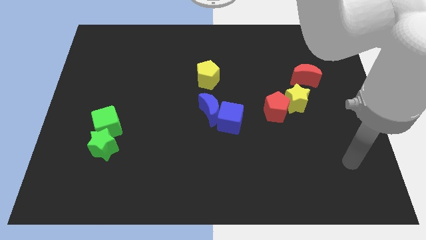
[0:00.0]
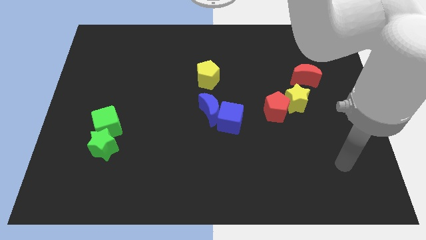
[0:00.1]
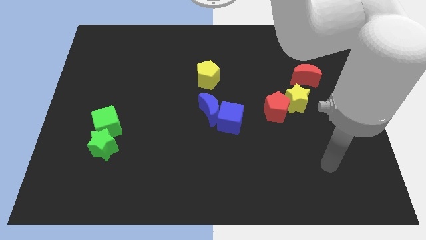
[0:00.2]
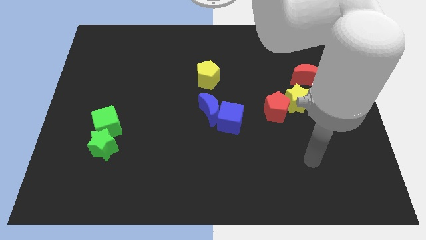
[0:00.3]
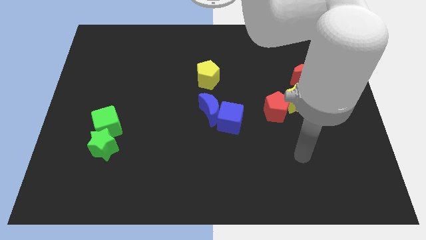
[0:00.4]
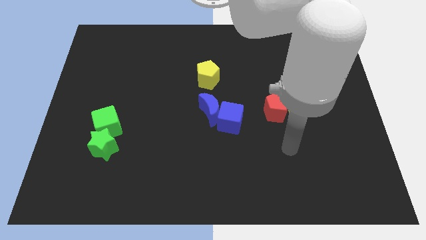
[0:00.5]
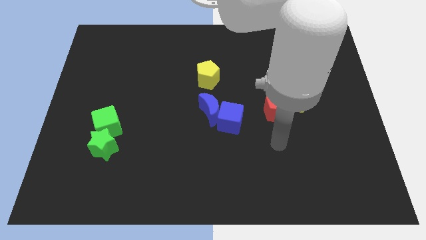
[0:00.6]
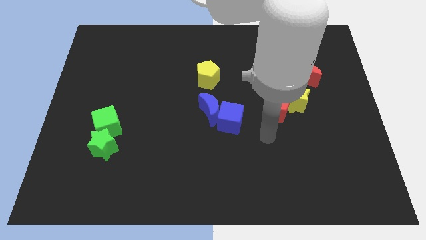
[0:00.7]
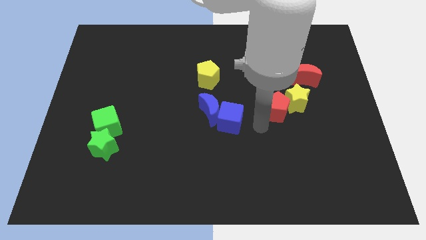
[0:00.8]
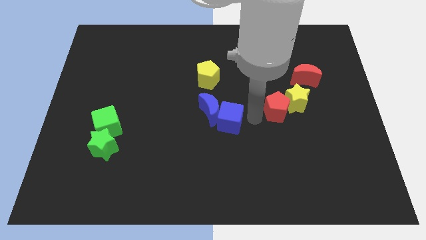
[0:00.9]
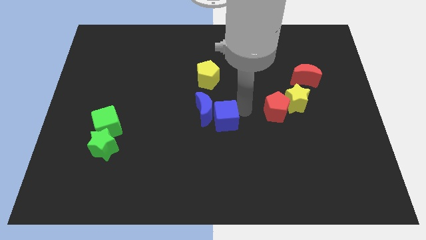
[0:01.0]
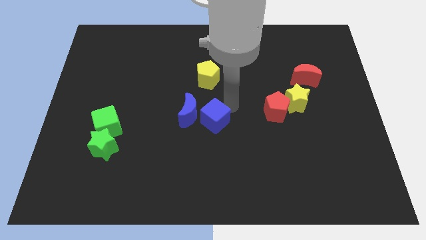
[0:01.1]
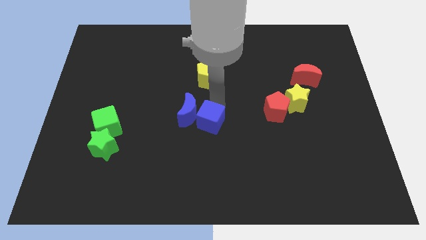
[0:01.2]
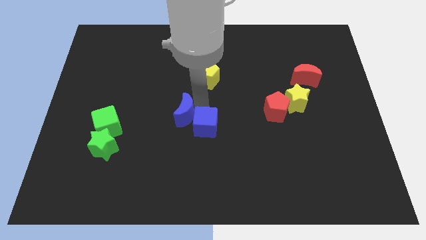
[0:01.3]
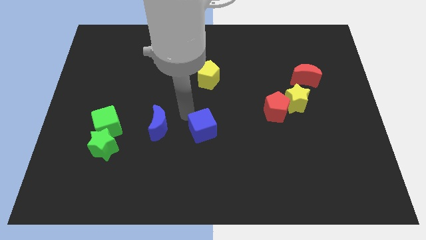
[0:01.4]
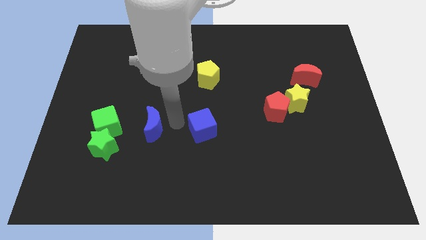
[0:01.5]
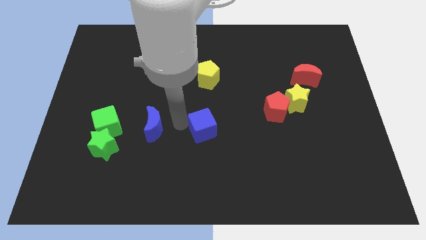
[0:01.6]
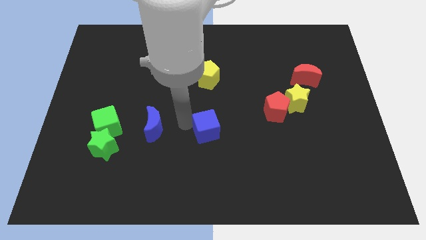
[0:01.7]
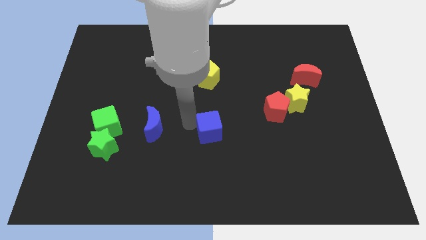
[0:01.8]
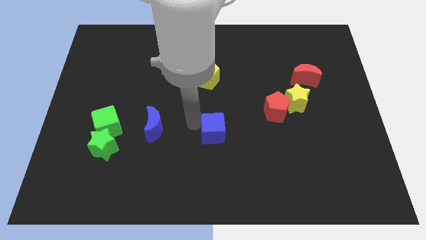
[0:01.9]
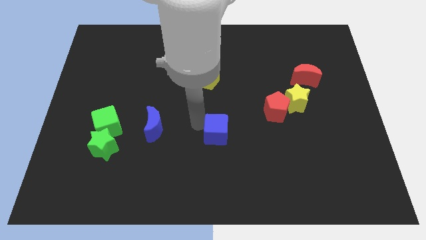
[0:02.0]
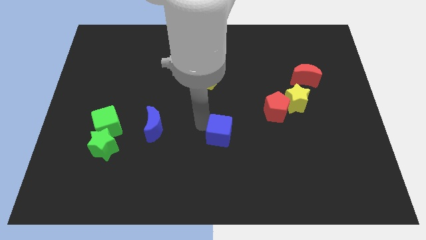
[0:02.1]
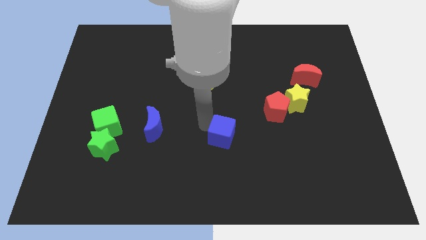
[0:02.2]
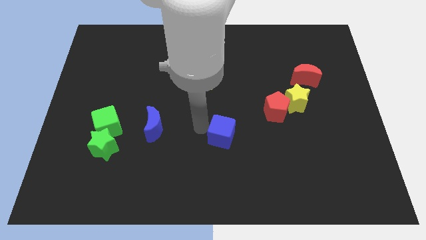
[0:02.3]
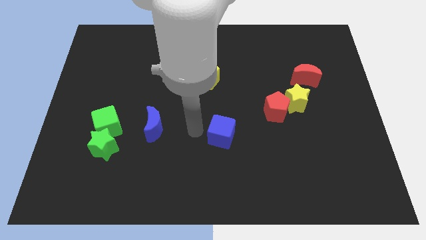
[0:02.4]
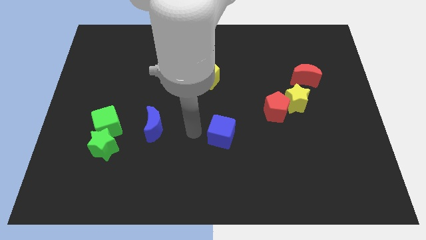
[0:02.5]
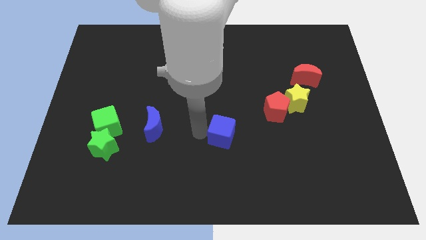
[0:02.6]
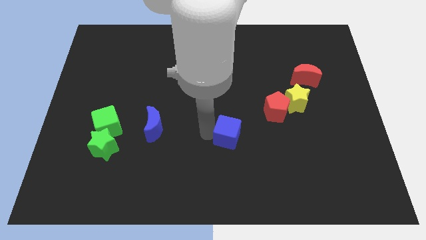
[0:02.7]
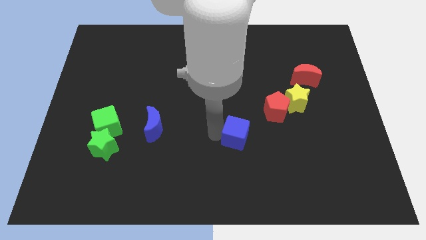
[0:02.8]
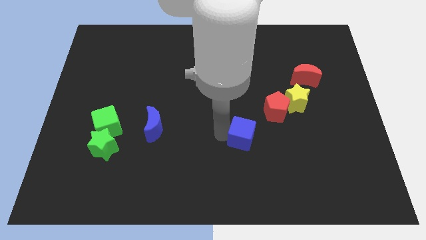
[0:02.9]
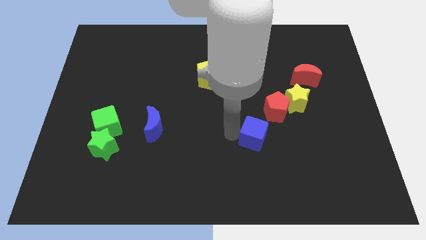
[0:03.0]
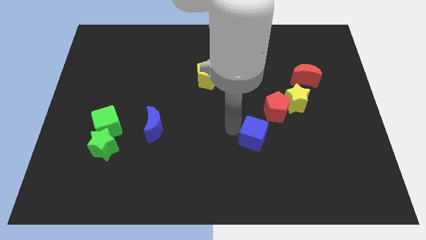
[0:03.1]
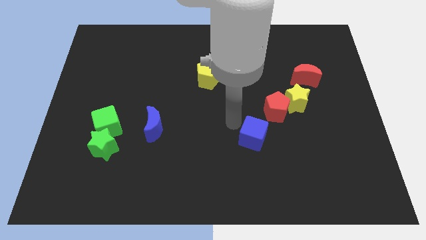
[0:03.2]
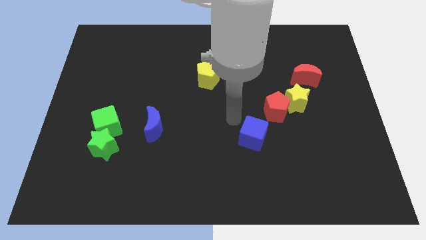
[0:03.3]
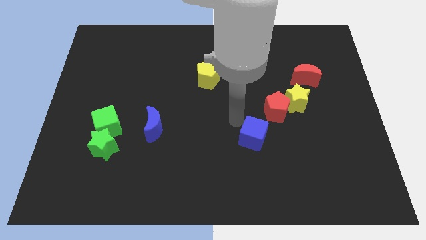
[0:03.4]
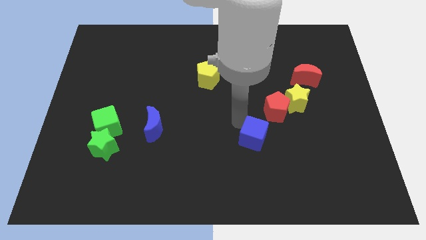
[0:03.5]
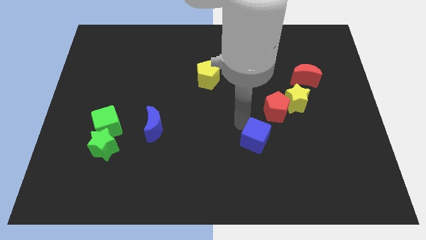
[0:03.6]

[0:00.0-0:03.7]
slightly push the blue cube downwards and right

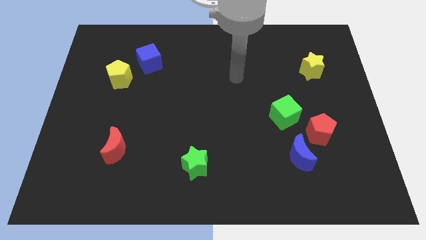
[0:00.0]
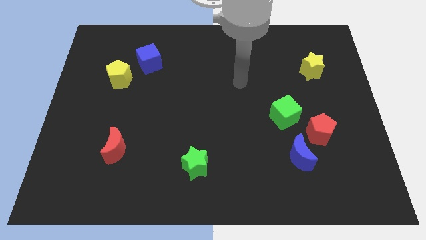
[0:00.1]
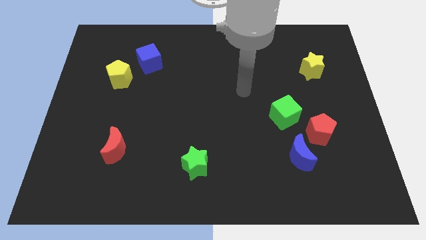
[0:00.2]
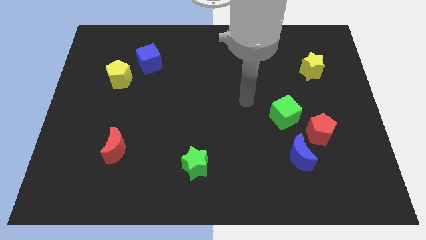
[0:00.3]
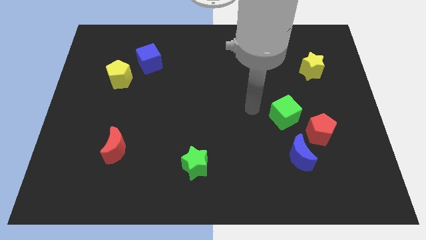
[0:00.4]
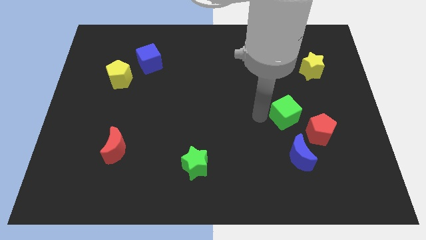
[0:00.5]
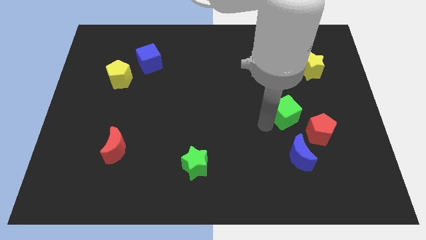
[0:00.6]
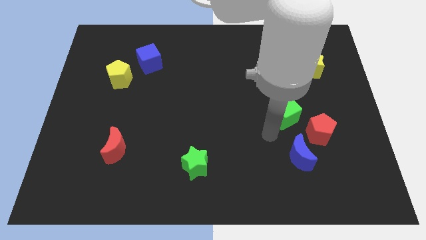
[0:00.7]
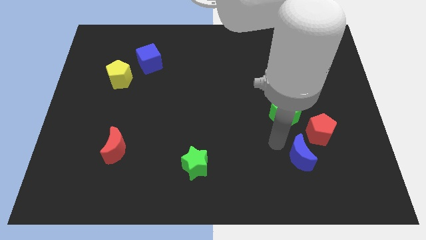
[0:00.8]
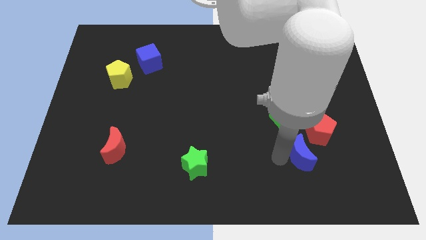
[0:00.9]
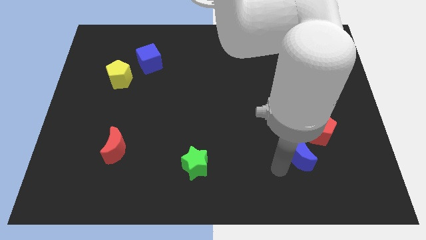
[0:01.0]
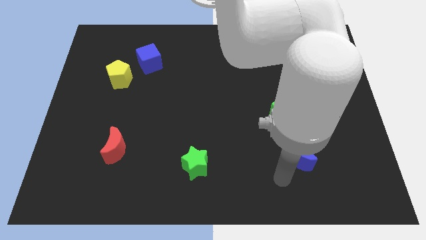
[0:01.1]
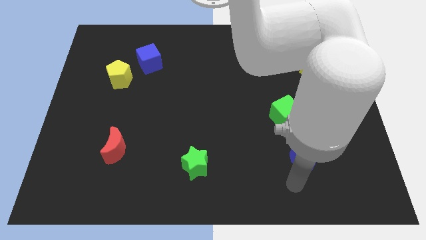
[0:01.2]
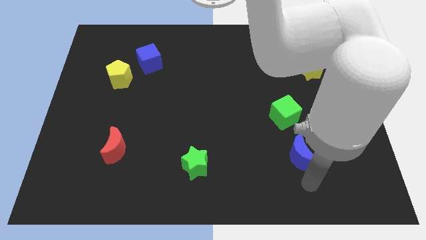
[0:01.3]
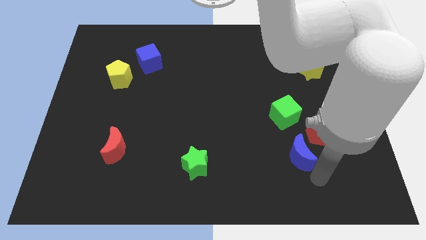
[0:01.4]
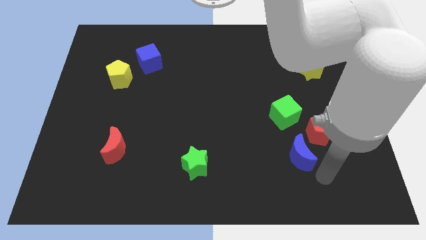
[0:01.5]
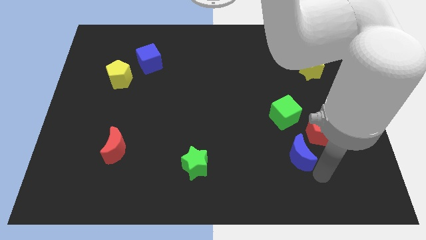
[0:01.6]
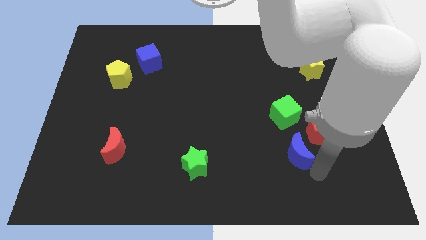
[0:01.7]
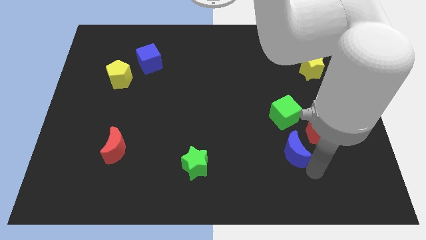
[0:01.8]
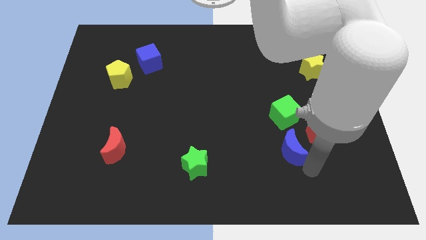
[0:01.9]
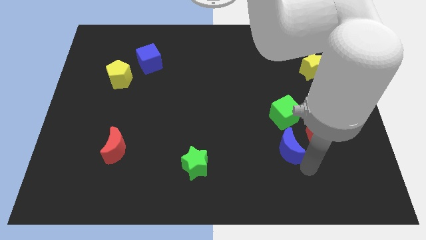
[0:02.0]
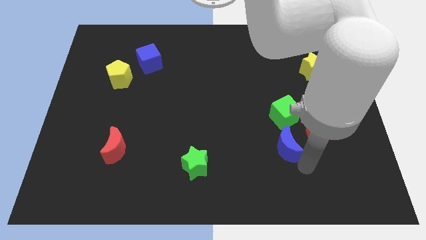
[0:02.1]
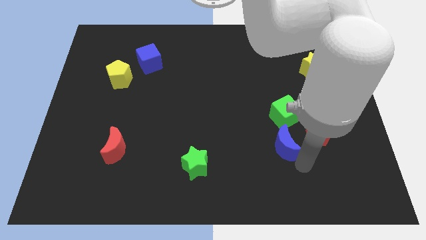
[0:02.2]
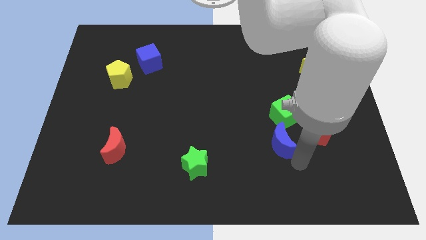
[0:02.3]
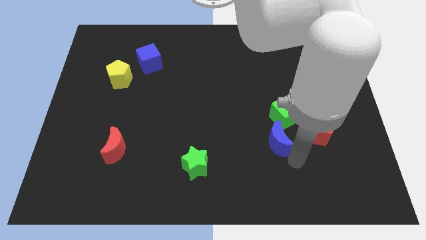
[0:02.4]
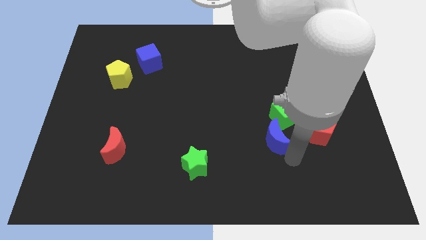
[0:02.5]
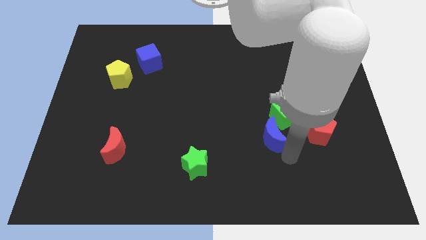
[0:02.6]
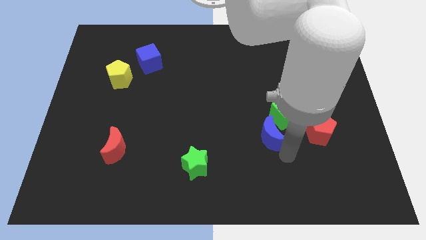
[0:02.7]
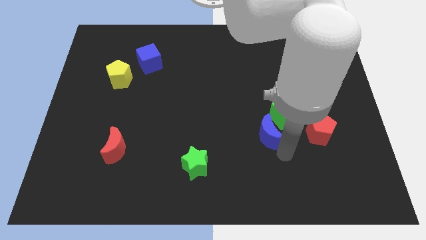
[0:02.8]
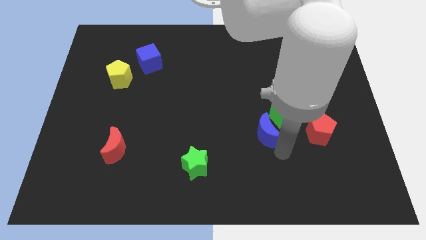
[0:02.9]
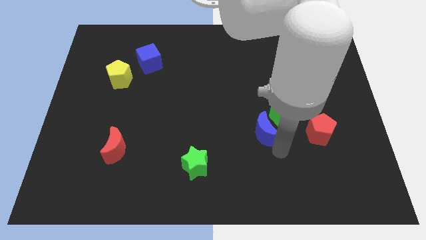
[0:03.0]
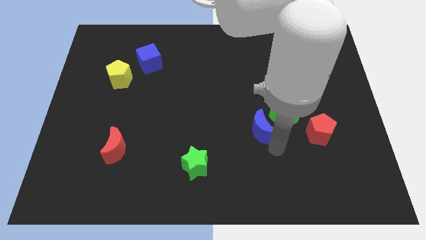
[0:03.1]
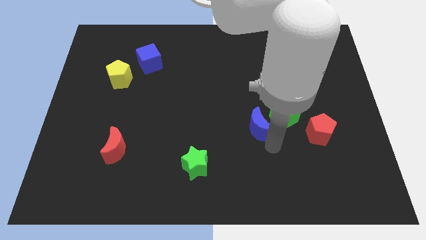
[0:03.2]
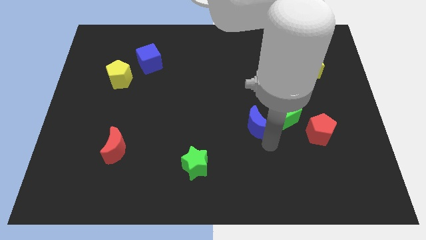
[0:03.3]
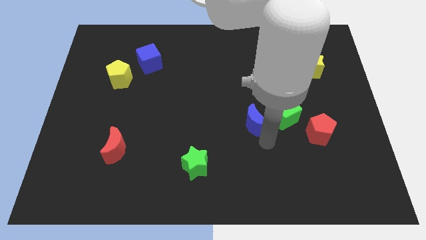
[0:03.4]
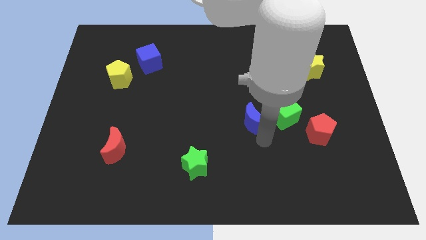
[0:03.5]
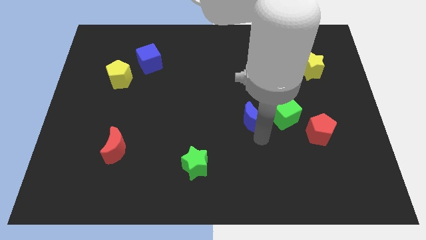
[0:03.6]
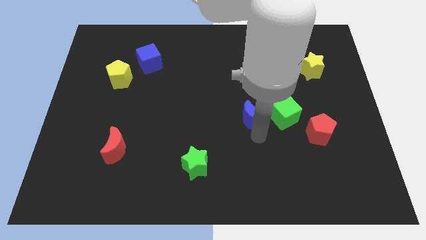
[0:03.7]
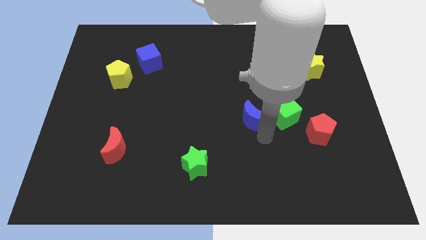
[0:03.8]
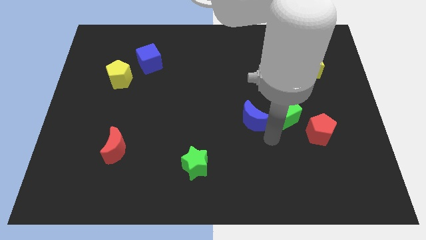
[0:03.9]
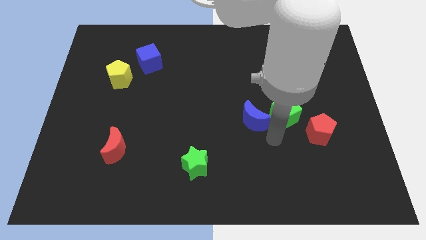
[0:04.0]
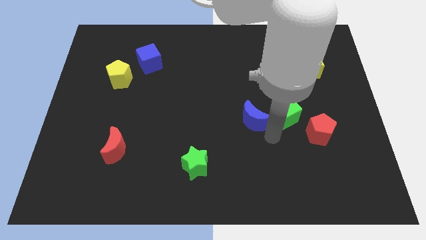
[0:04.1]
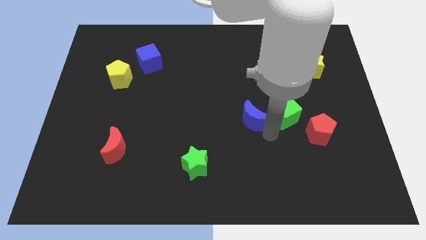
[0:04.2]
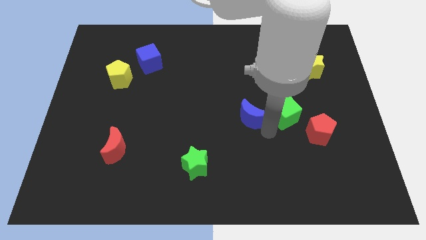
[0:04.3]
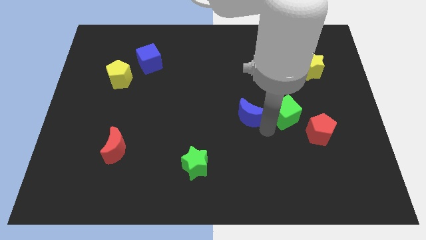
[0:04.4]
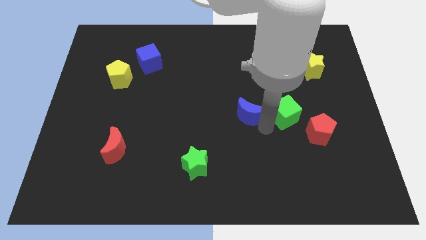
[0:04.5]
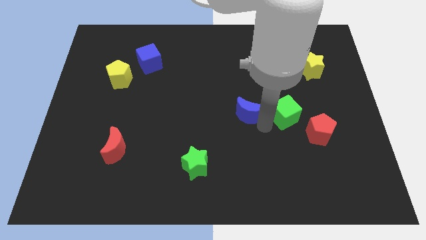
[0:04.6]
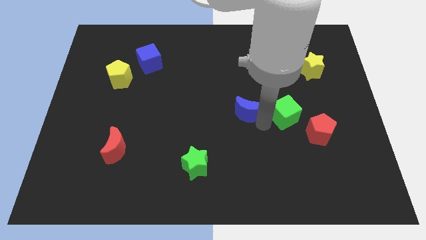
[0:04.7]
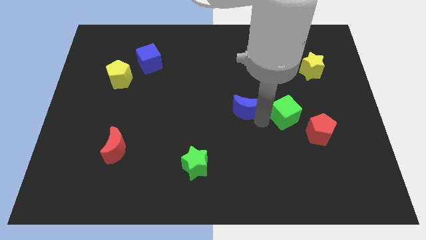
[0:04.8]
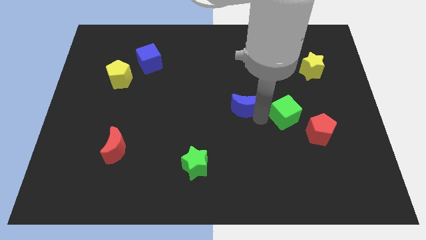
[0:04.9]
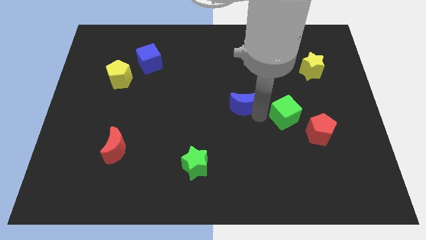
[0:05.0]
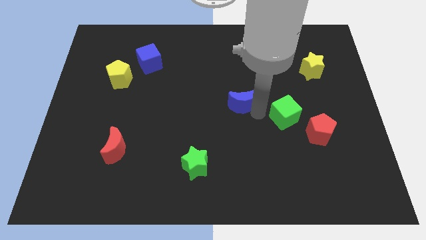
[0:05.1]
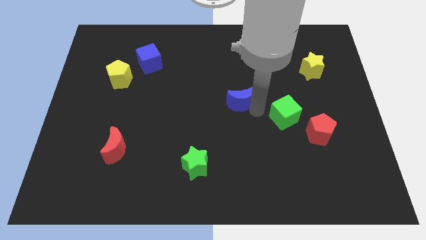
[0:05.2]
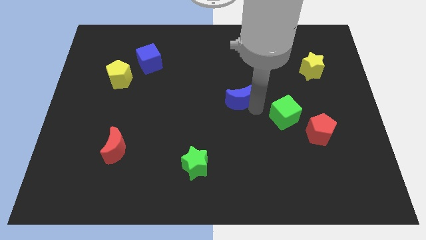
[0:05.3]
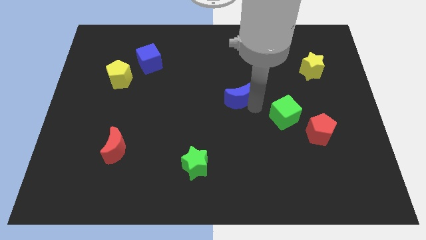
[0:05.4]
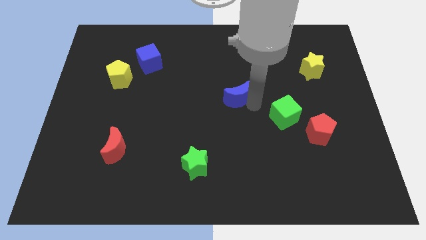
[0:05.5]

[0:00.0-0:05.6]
move the blue moon upwards and to the left
